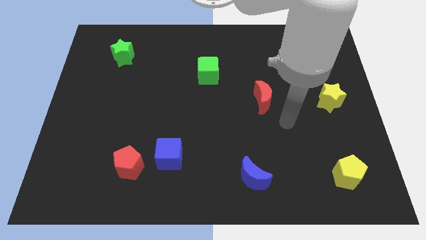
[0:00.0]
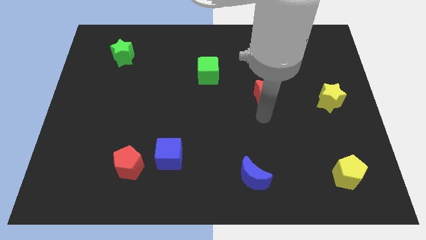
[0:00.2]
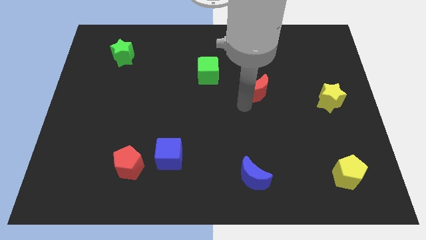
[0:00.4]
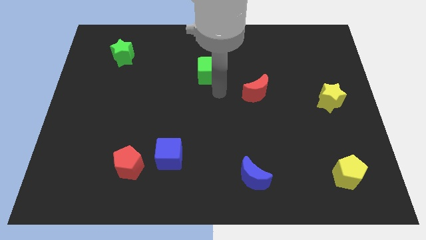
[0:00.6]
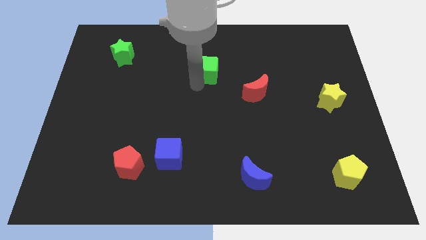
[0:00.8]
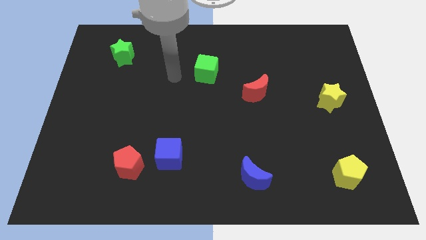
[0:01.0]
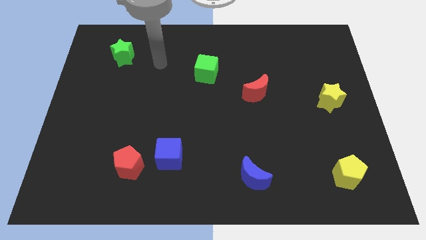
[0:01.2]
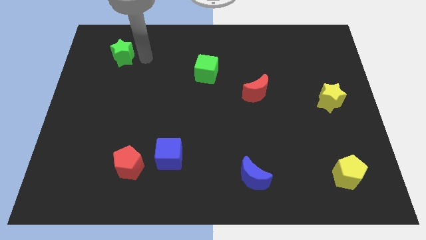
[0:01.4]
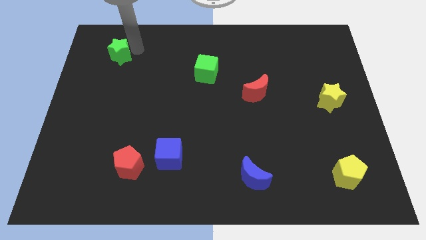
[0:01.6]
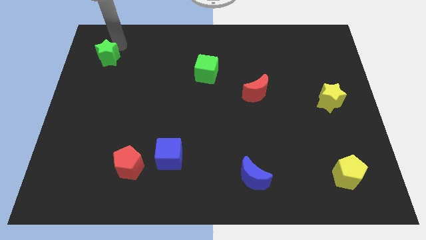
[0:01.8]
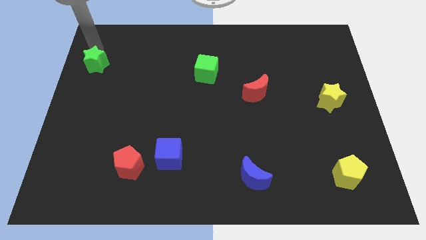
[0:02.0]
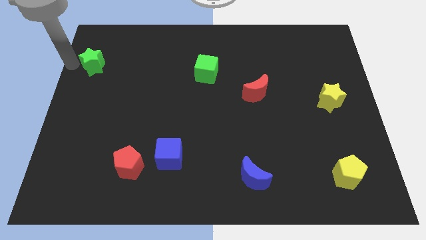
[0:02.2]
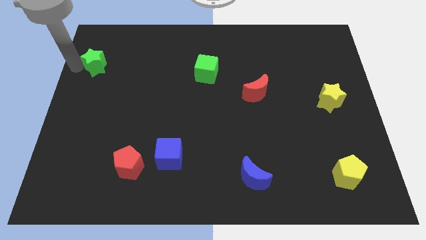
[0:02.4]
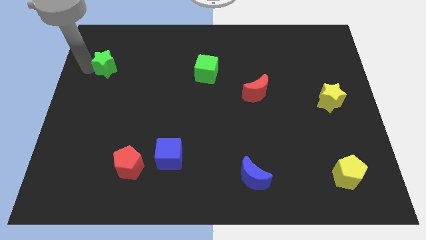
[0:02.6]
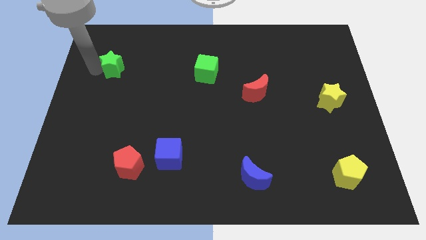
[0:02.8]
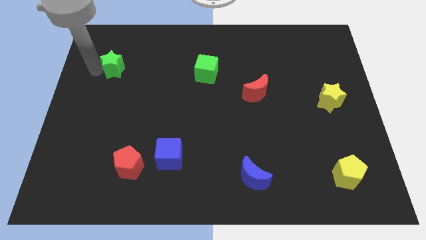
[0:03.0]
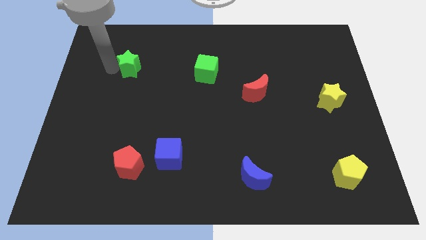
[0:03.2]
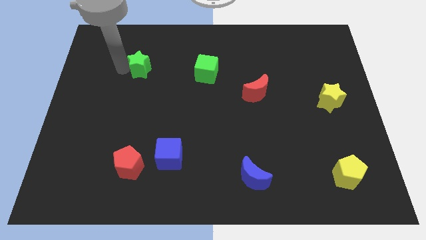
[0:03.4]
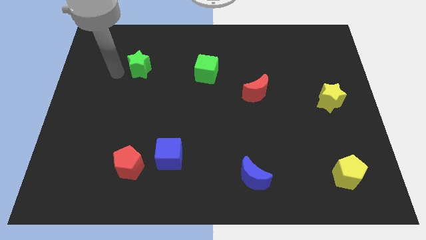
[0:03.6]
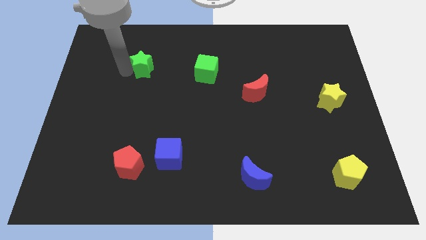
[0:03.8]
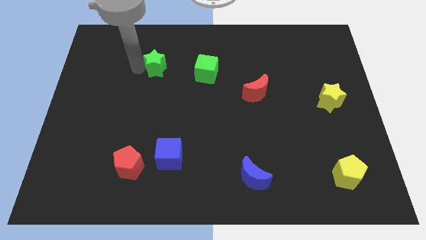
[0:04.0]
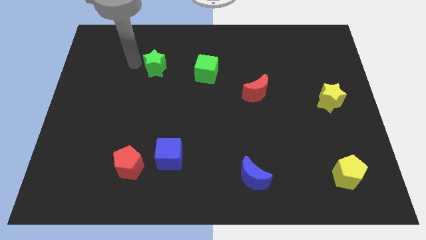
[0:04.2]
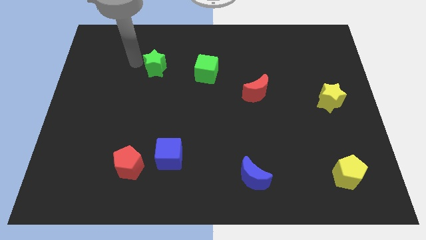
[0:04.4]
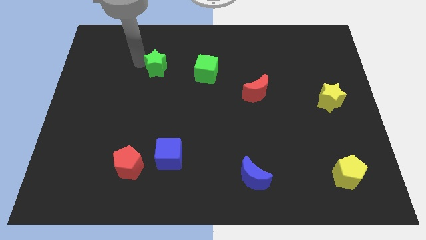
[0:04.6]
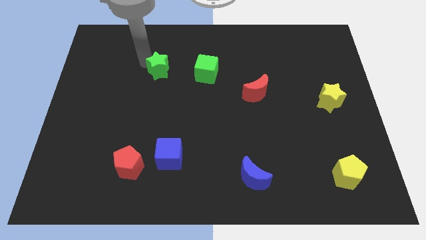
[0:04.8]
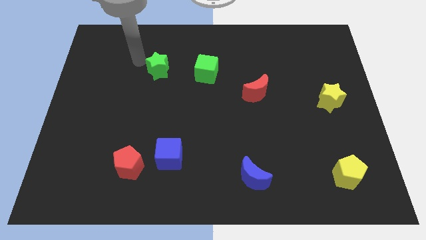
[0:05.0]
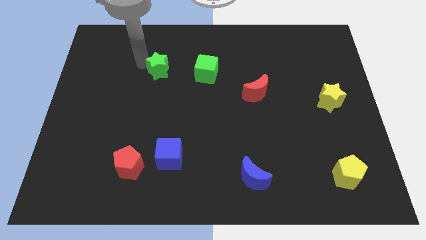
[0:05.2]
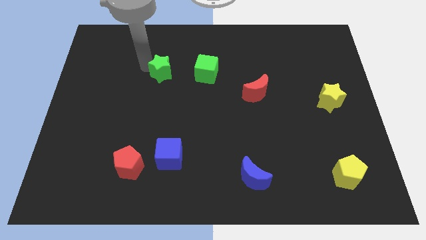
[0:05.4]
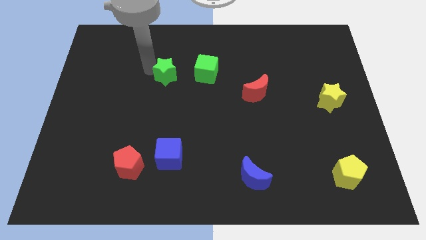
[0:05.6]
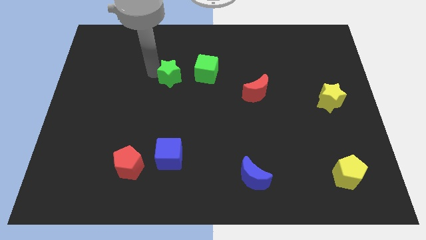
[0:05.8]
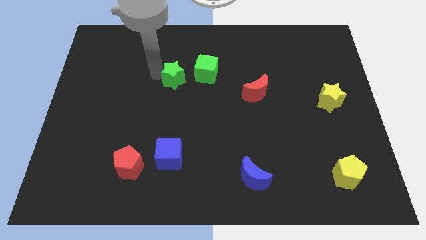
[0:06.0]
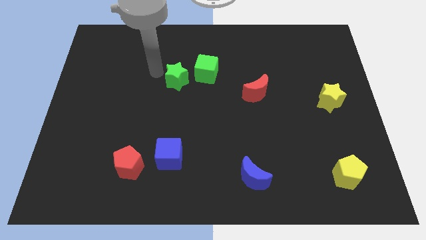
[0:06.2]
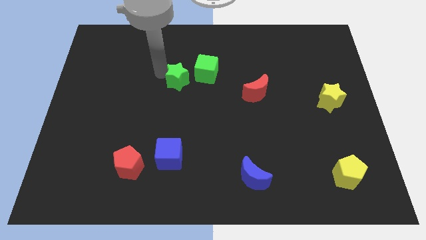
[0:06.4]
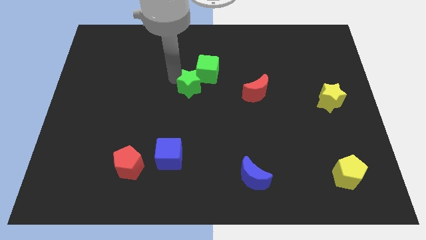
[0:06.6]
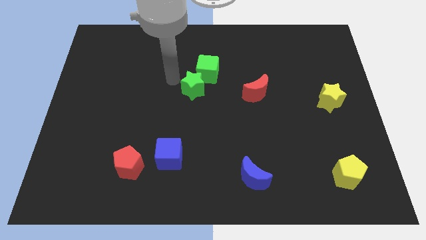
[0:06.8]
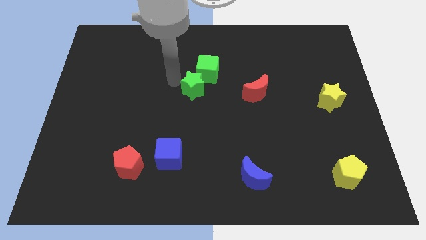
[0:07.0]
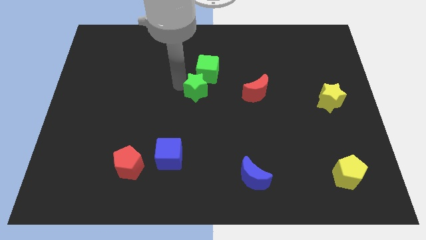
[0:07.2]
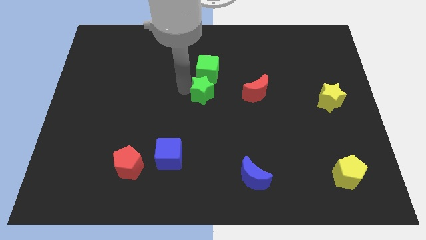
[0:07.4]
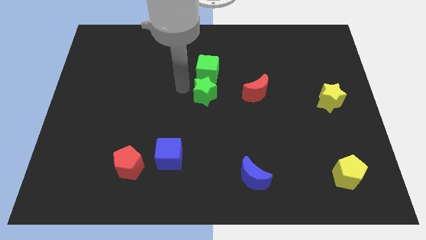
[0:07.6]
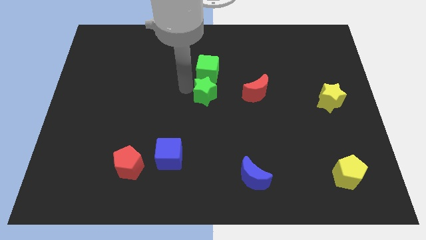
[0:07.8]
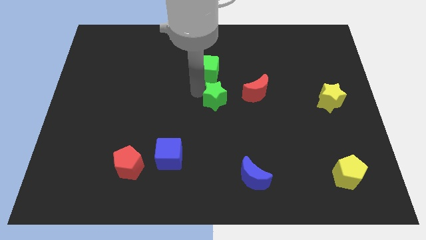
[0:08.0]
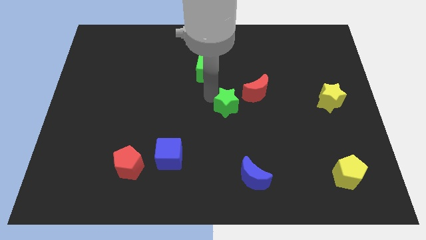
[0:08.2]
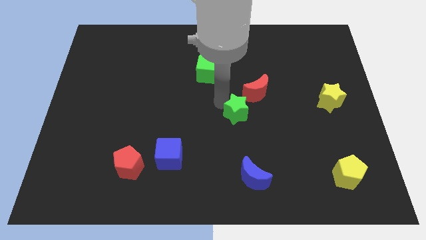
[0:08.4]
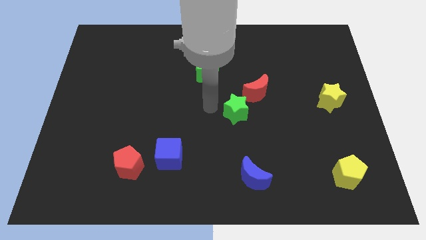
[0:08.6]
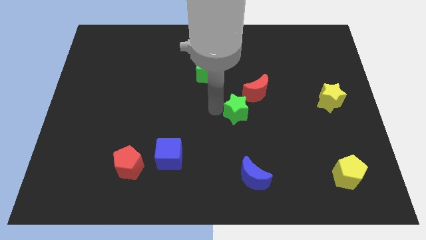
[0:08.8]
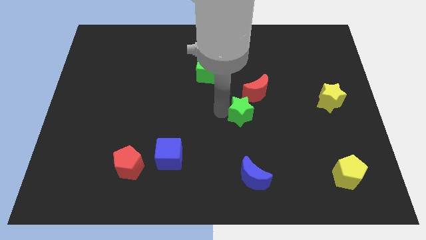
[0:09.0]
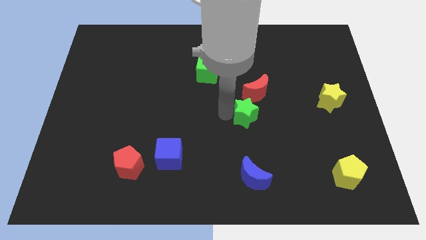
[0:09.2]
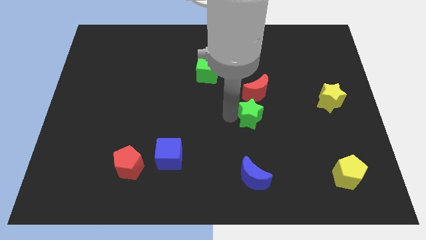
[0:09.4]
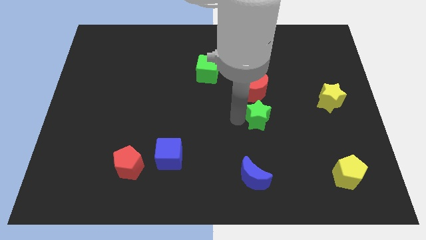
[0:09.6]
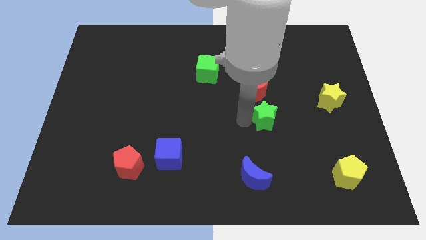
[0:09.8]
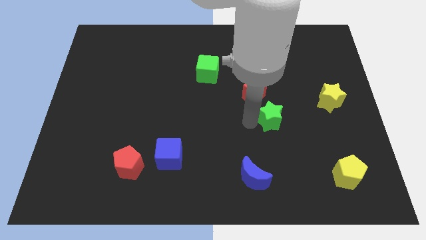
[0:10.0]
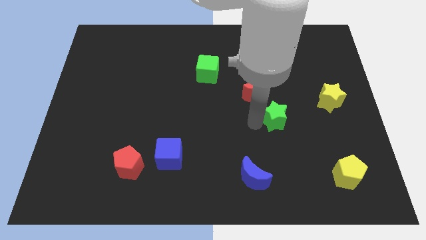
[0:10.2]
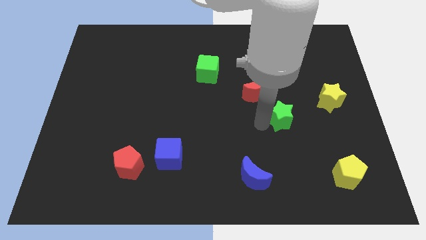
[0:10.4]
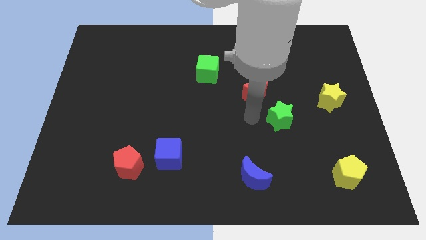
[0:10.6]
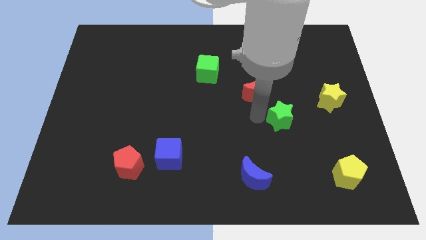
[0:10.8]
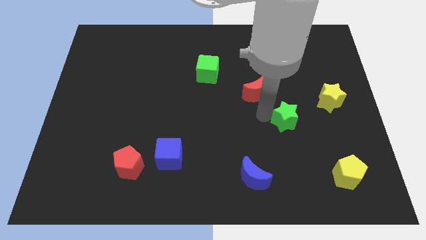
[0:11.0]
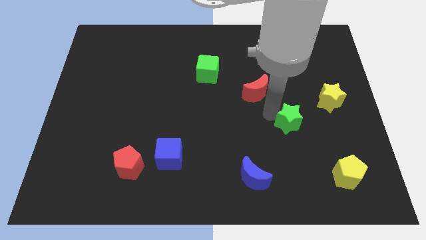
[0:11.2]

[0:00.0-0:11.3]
slide the green star diagonally down and to the left of the yellow star

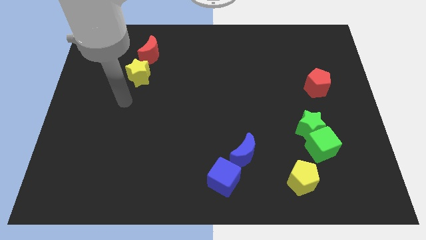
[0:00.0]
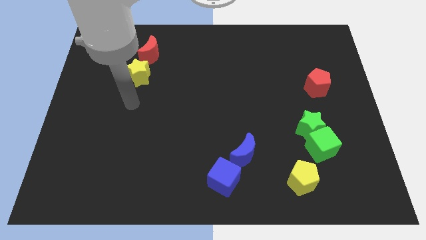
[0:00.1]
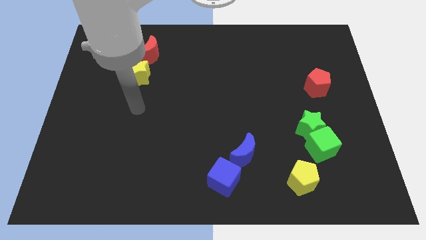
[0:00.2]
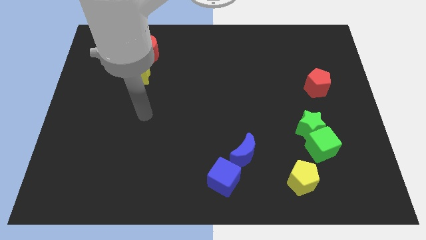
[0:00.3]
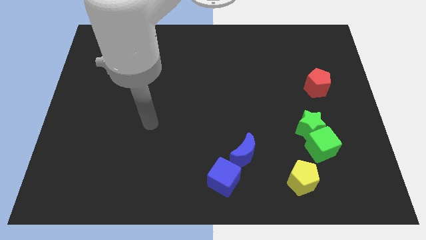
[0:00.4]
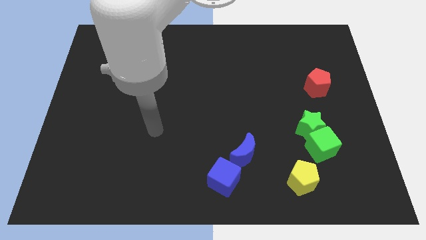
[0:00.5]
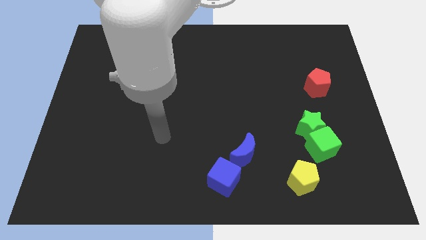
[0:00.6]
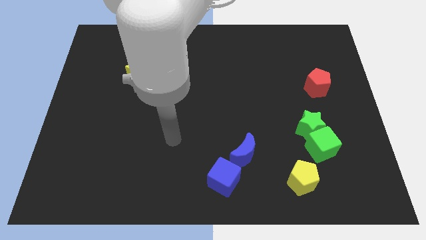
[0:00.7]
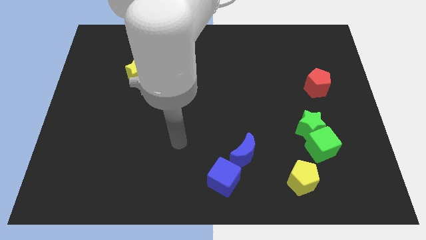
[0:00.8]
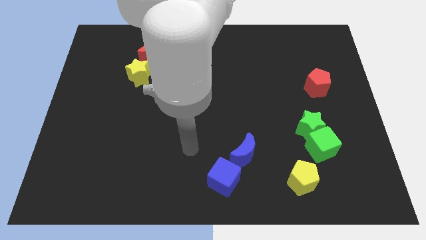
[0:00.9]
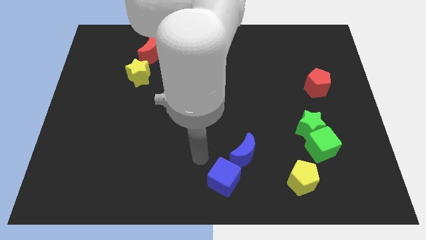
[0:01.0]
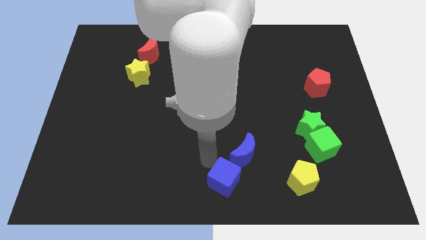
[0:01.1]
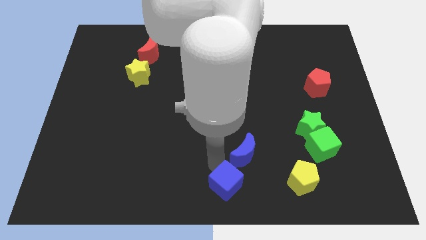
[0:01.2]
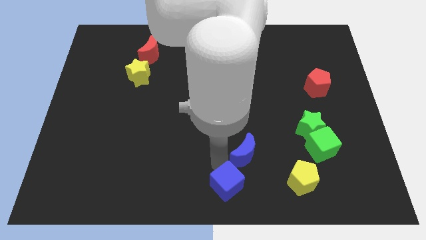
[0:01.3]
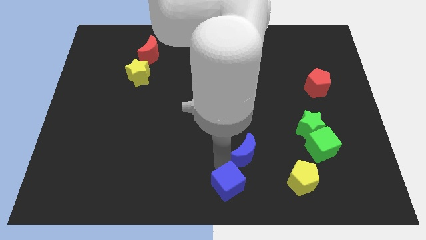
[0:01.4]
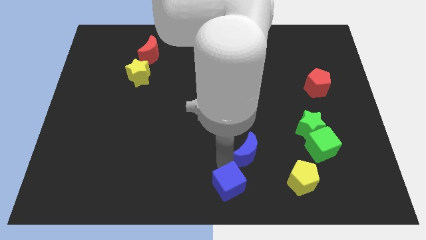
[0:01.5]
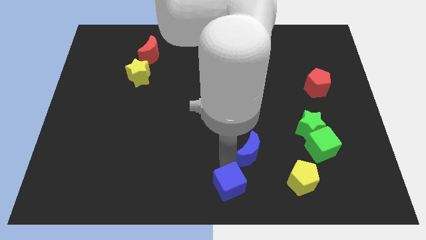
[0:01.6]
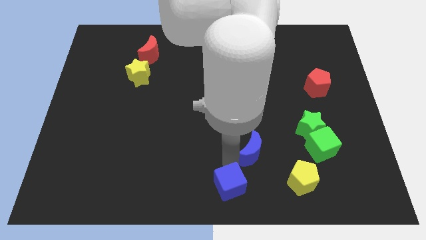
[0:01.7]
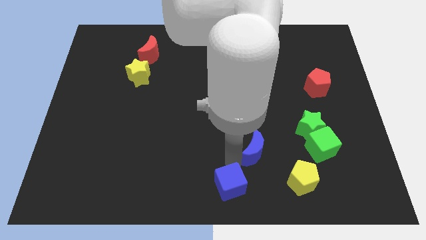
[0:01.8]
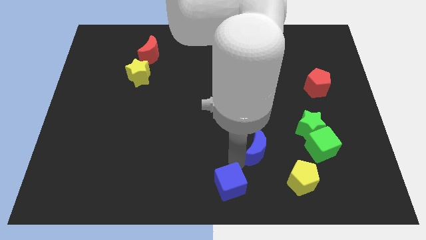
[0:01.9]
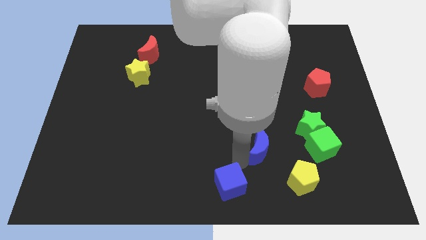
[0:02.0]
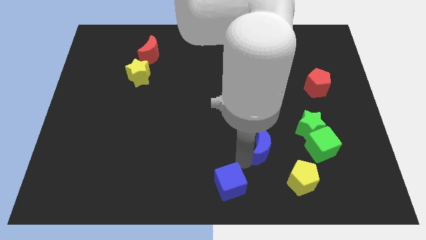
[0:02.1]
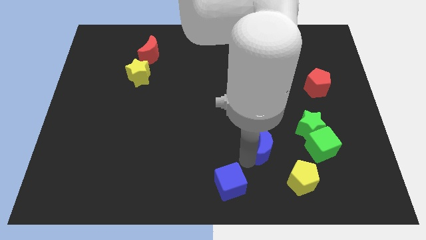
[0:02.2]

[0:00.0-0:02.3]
move the blue moon to the bottom left of the green star
